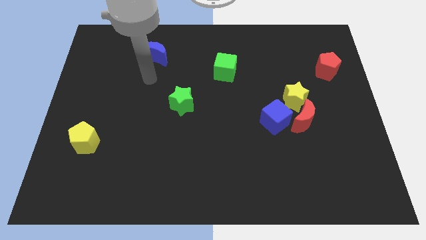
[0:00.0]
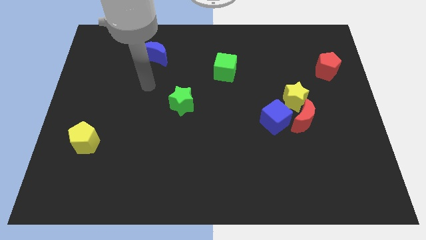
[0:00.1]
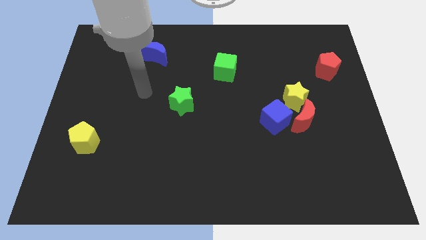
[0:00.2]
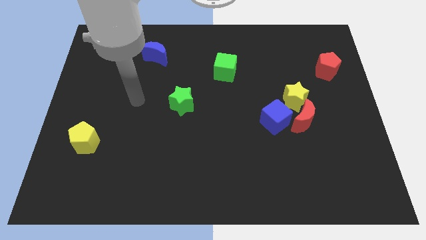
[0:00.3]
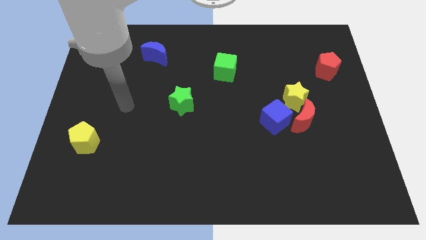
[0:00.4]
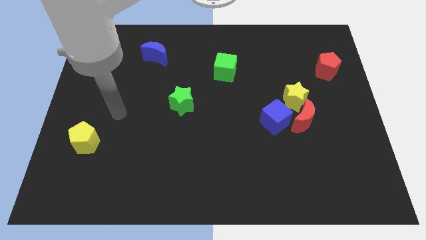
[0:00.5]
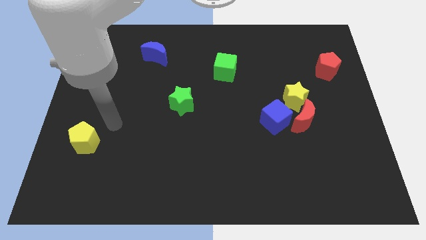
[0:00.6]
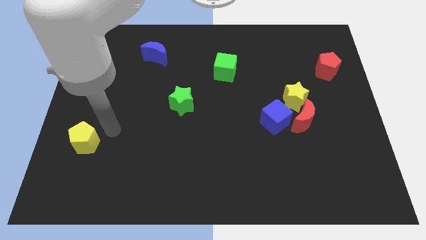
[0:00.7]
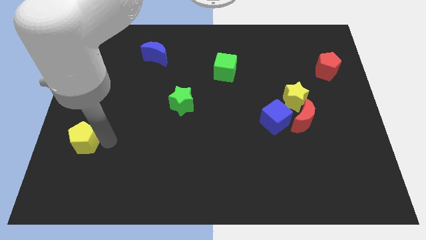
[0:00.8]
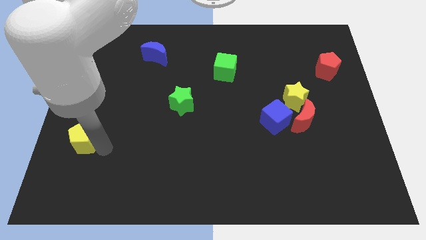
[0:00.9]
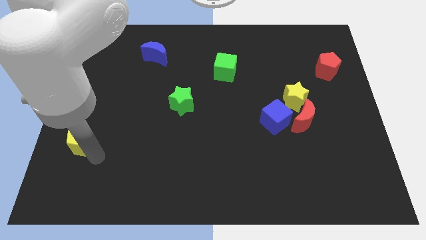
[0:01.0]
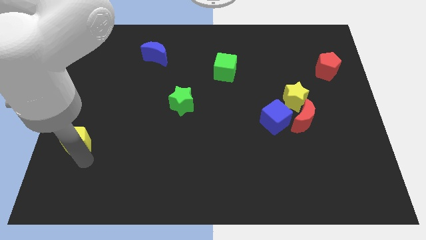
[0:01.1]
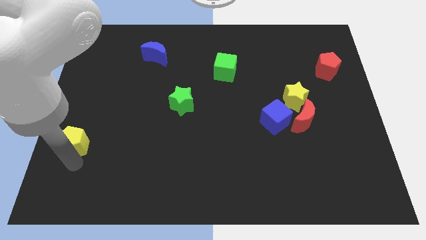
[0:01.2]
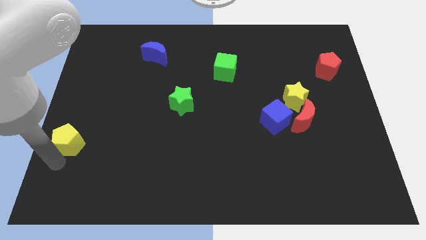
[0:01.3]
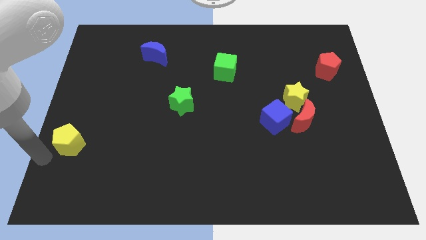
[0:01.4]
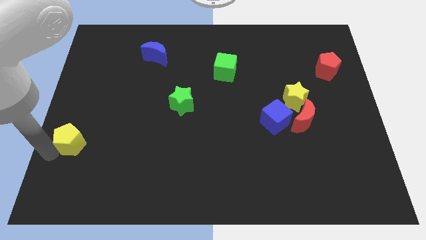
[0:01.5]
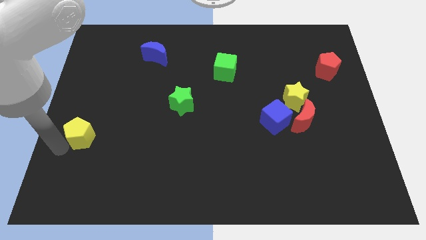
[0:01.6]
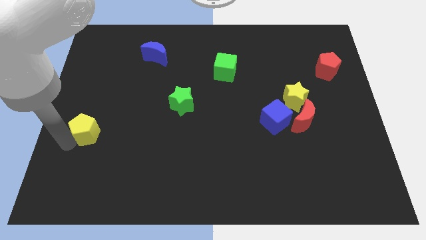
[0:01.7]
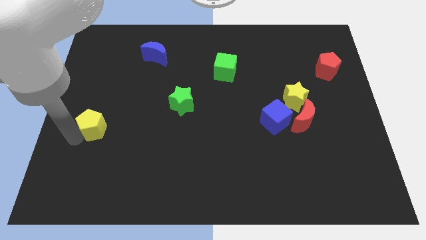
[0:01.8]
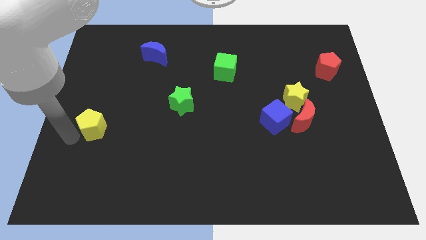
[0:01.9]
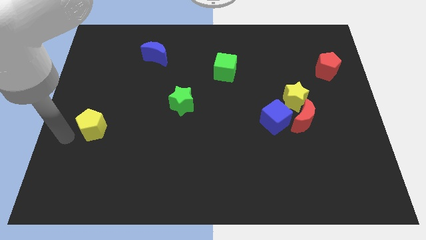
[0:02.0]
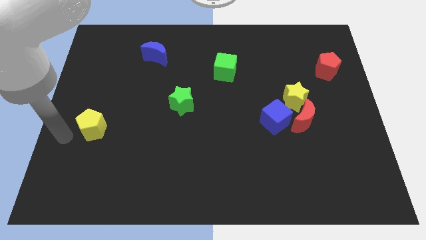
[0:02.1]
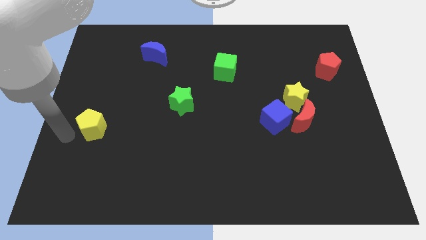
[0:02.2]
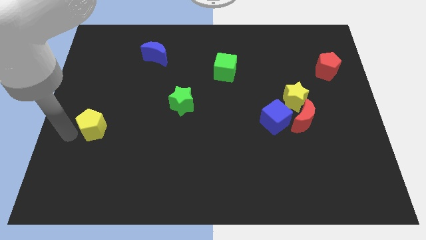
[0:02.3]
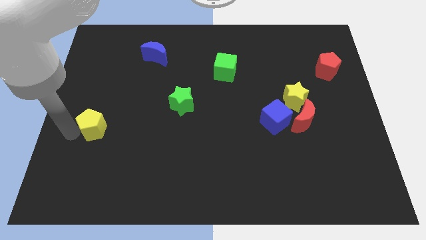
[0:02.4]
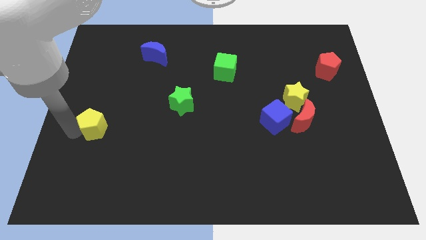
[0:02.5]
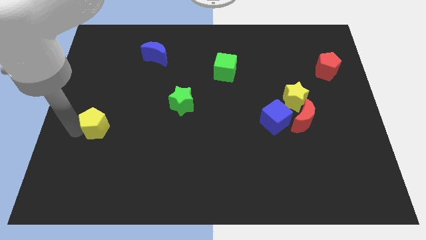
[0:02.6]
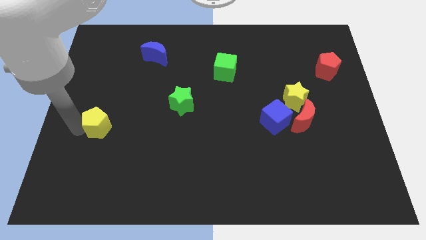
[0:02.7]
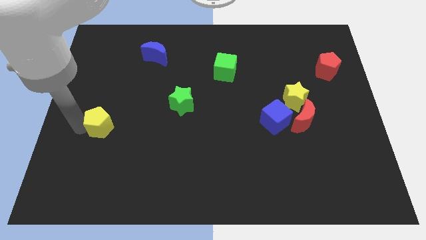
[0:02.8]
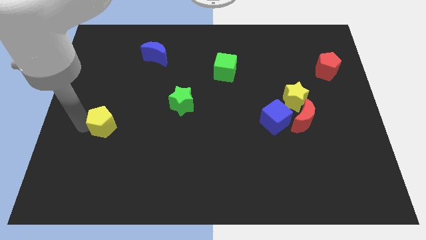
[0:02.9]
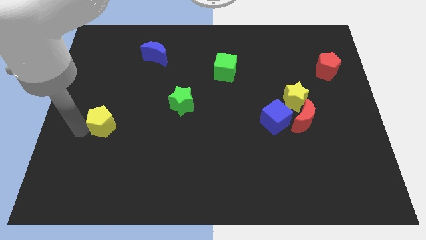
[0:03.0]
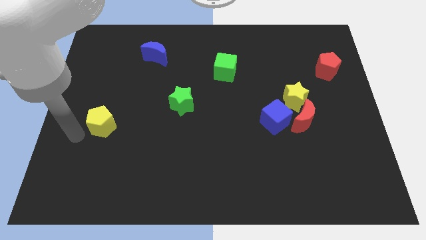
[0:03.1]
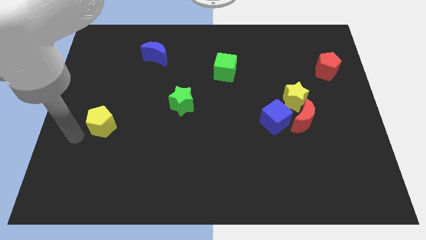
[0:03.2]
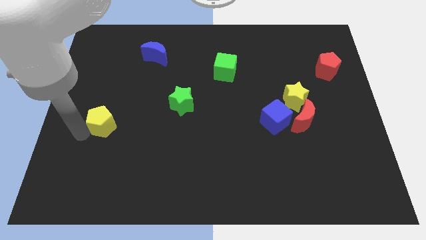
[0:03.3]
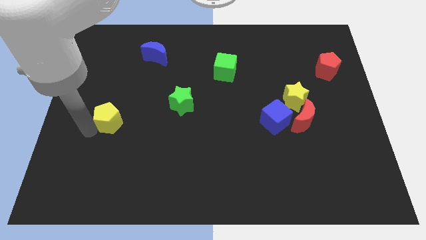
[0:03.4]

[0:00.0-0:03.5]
move the yellow pentagon a little diagonally up and to the right

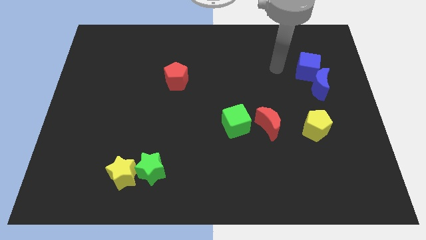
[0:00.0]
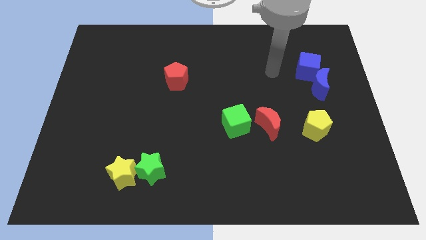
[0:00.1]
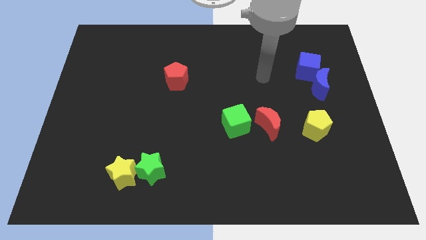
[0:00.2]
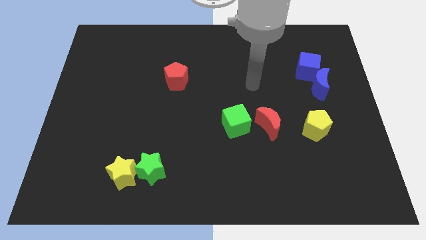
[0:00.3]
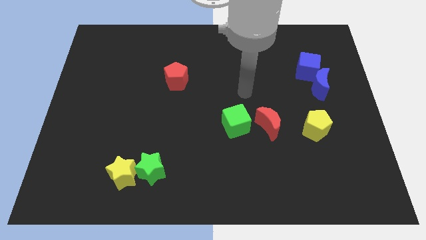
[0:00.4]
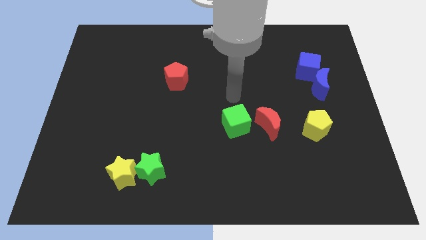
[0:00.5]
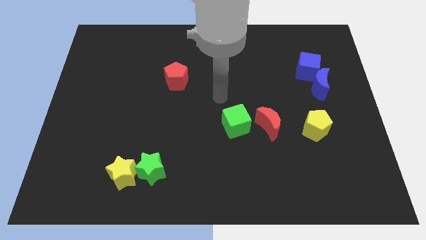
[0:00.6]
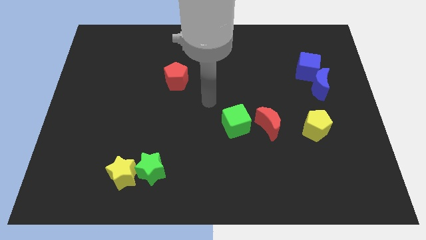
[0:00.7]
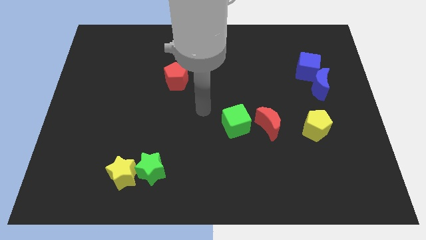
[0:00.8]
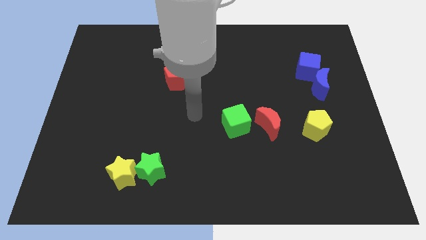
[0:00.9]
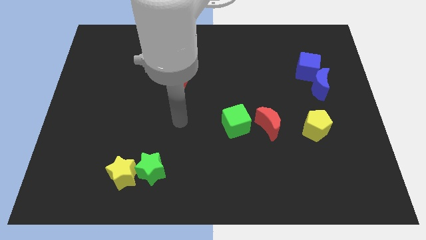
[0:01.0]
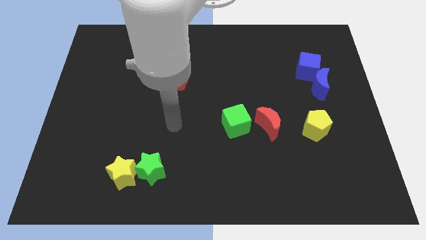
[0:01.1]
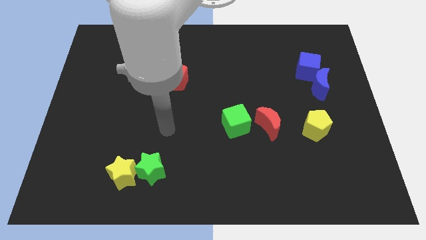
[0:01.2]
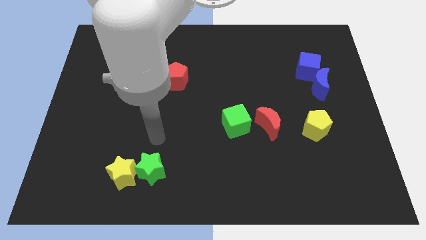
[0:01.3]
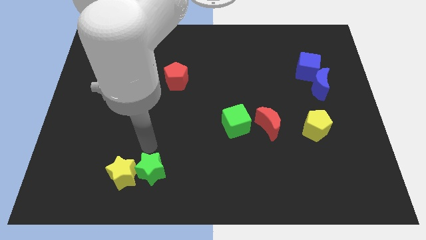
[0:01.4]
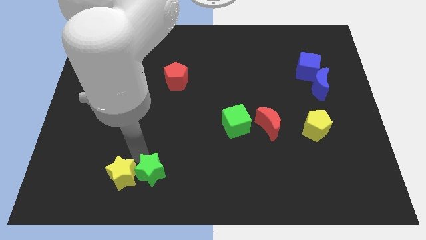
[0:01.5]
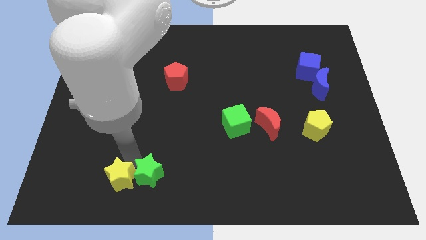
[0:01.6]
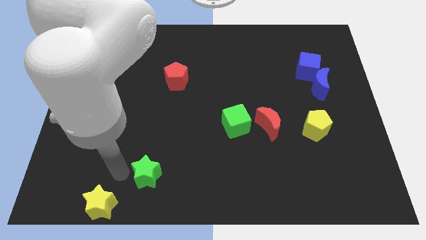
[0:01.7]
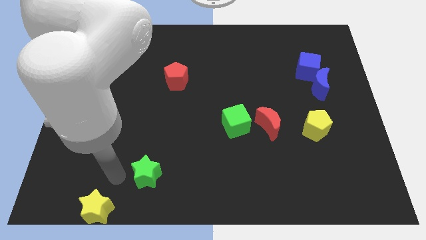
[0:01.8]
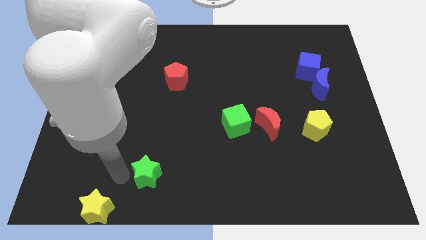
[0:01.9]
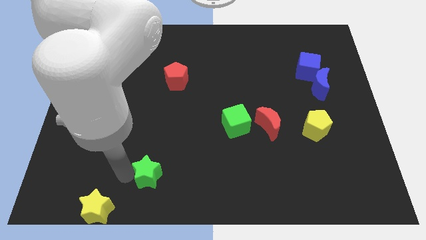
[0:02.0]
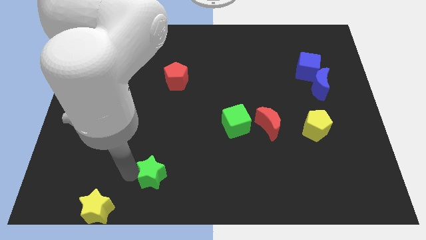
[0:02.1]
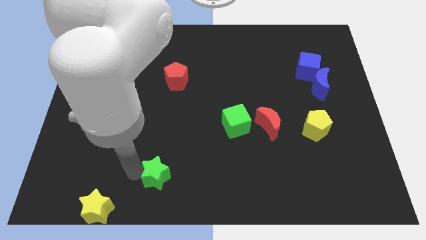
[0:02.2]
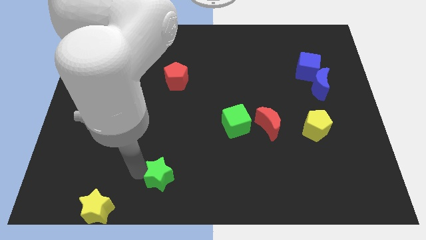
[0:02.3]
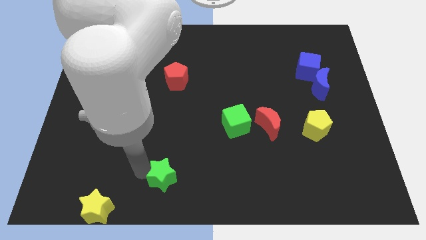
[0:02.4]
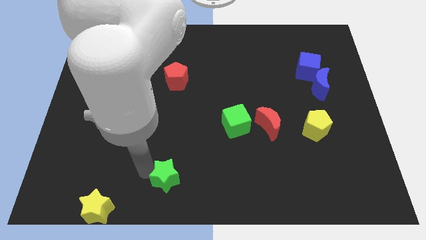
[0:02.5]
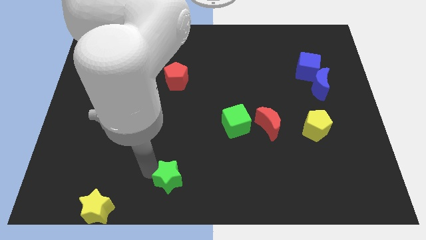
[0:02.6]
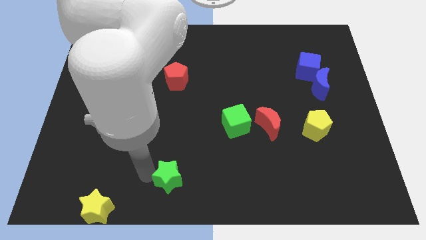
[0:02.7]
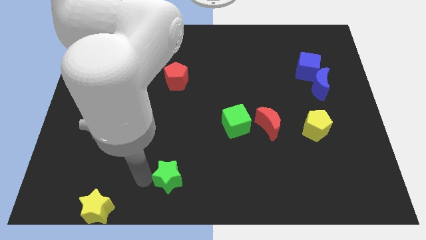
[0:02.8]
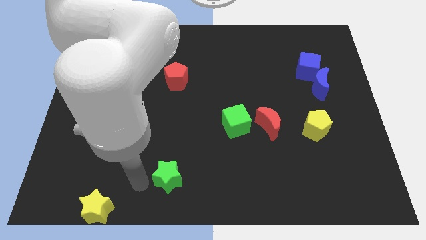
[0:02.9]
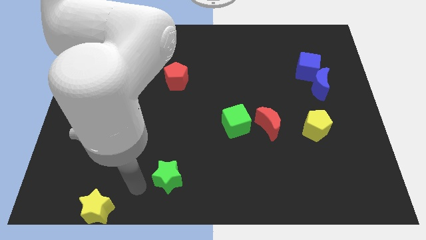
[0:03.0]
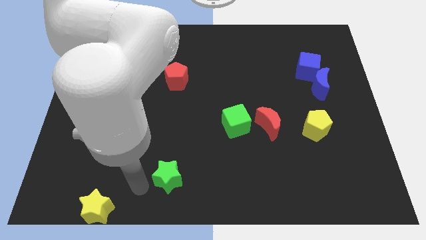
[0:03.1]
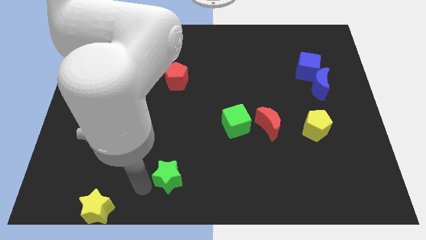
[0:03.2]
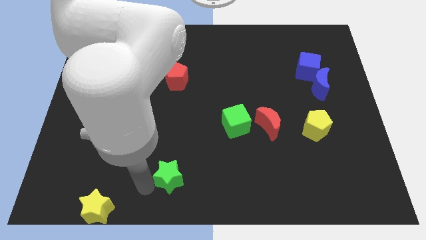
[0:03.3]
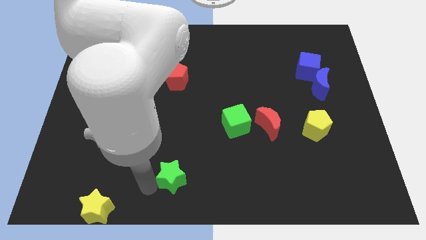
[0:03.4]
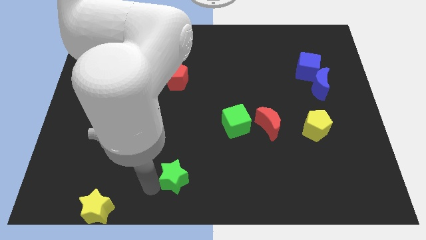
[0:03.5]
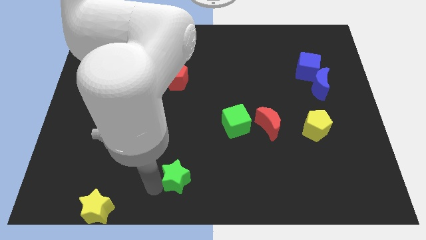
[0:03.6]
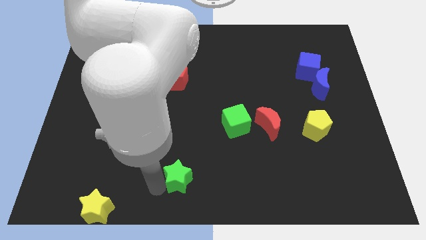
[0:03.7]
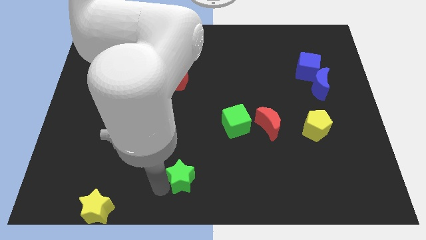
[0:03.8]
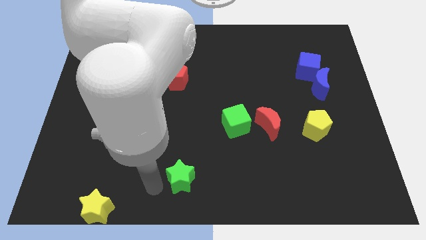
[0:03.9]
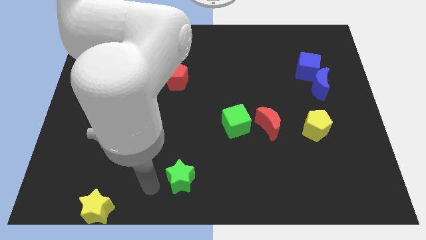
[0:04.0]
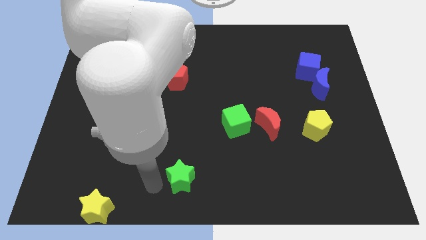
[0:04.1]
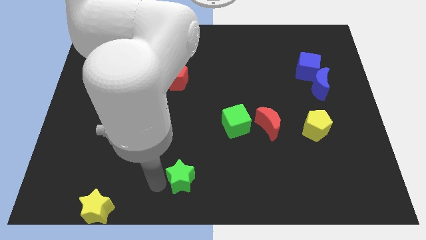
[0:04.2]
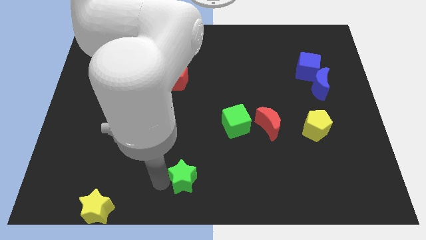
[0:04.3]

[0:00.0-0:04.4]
move the green star right slightly
